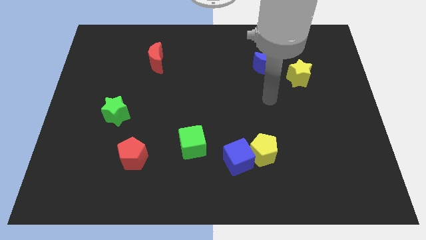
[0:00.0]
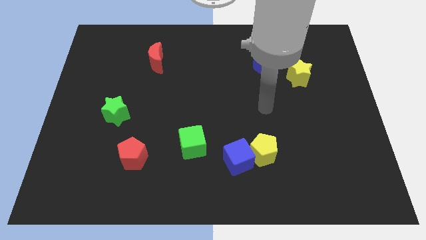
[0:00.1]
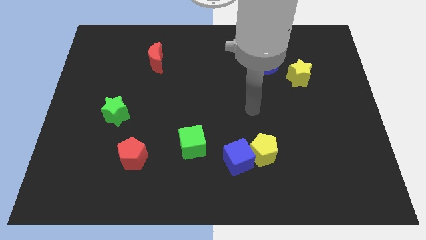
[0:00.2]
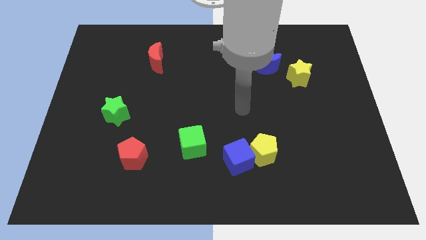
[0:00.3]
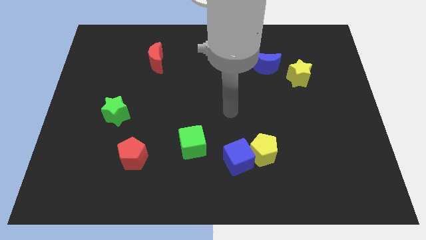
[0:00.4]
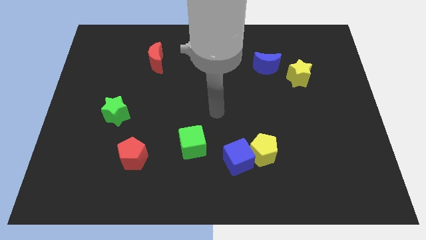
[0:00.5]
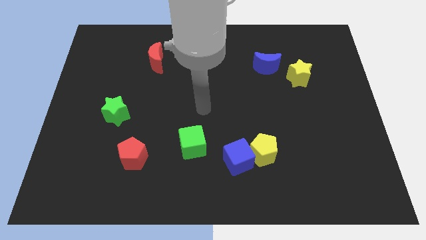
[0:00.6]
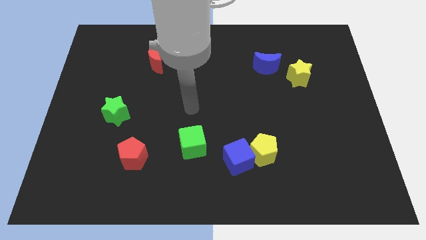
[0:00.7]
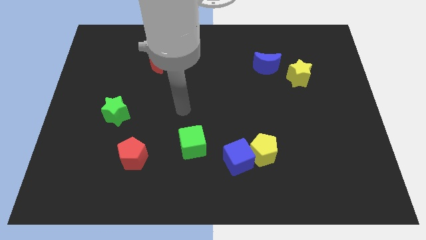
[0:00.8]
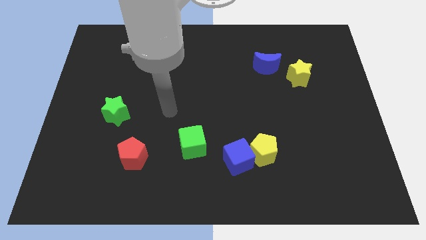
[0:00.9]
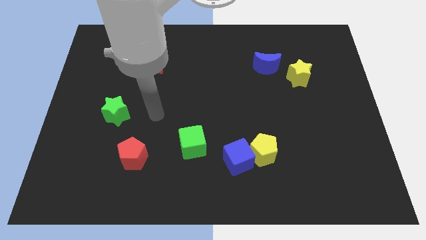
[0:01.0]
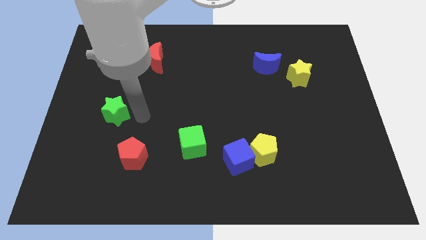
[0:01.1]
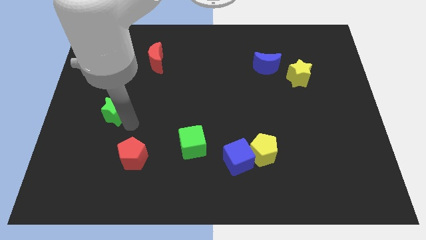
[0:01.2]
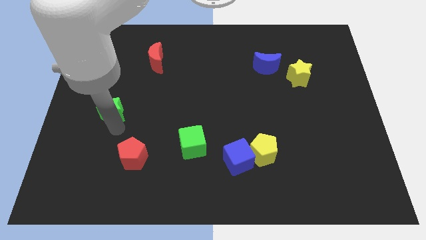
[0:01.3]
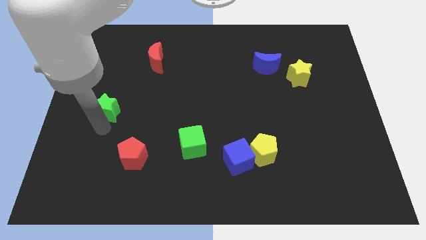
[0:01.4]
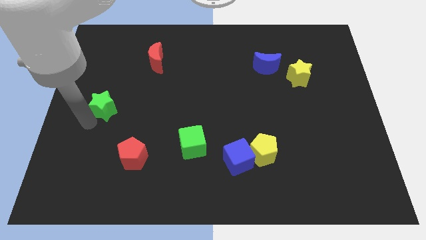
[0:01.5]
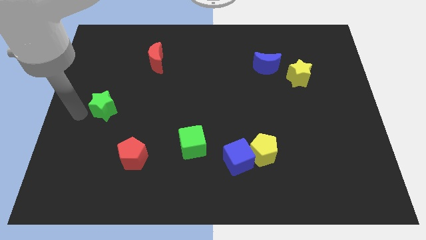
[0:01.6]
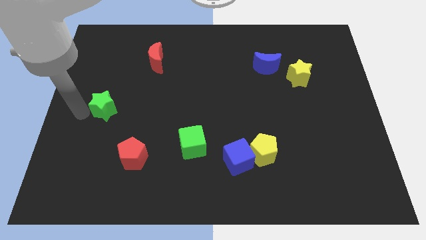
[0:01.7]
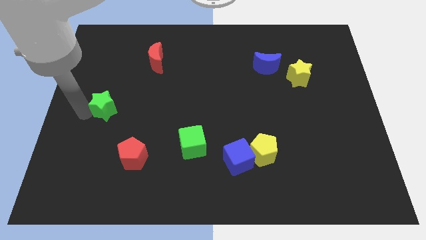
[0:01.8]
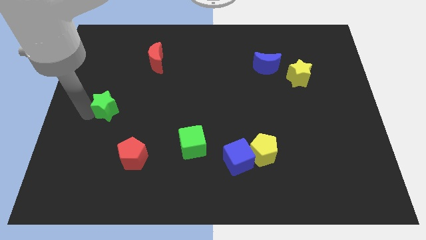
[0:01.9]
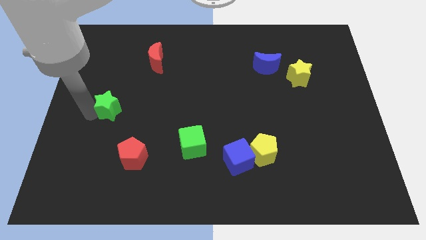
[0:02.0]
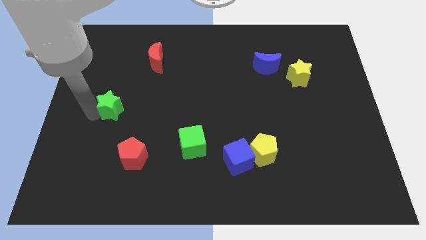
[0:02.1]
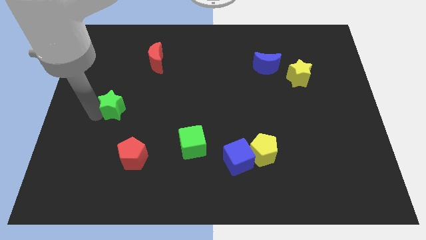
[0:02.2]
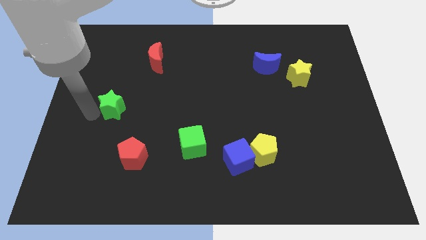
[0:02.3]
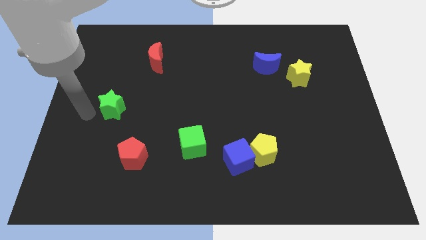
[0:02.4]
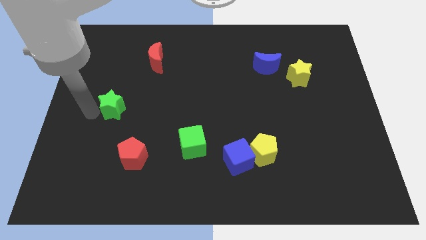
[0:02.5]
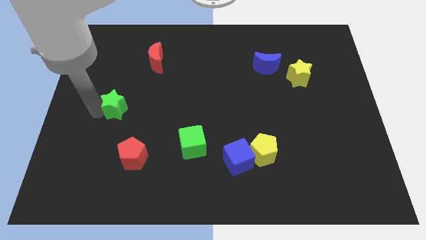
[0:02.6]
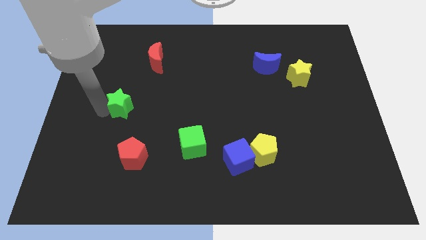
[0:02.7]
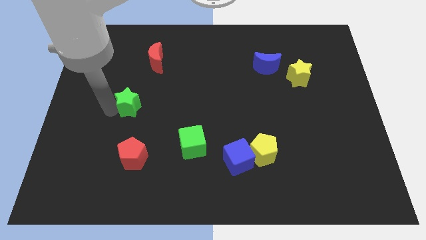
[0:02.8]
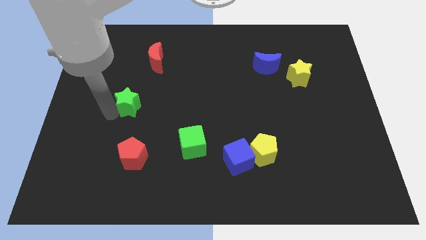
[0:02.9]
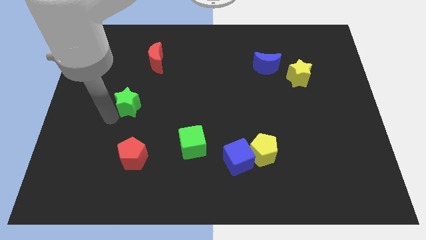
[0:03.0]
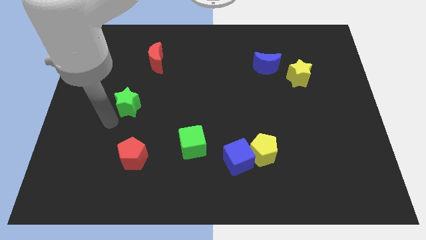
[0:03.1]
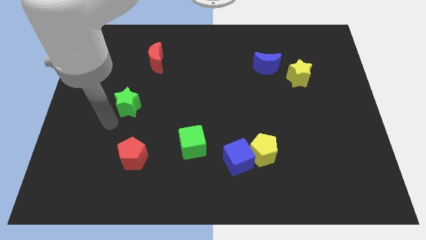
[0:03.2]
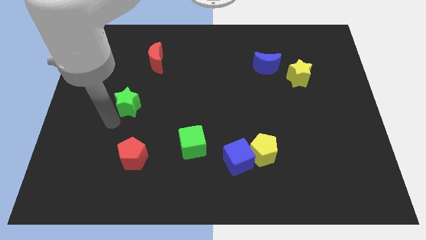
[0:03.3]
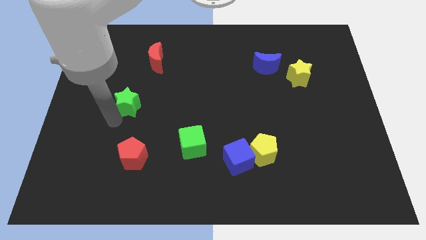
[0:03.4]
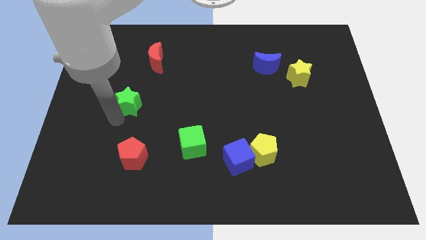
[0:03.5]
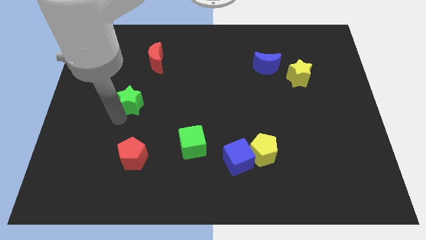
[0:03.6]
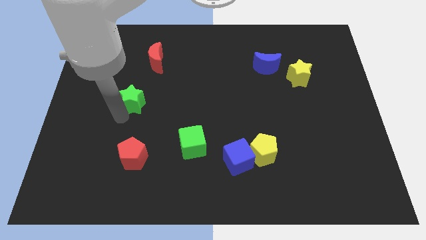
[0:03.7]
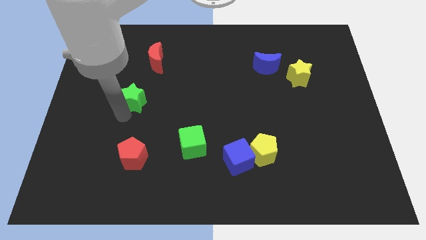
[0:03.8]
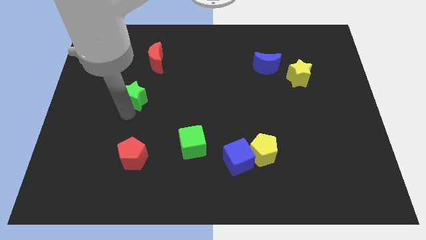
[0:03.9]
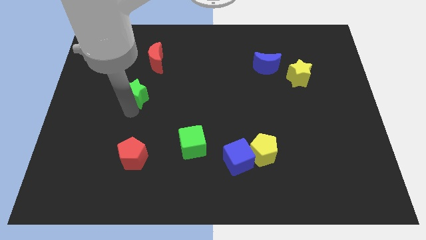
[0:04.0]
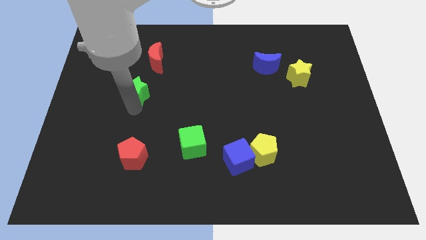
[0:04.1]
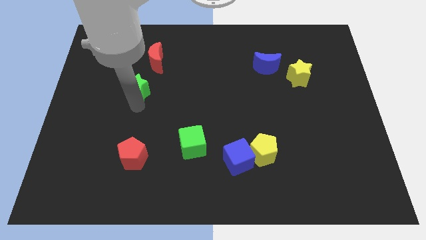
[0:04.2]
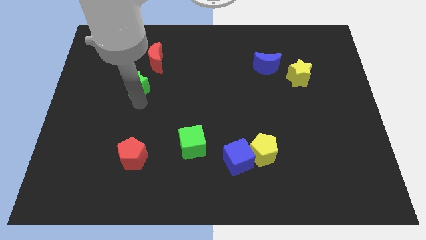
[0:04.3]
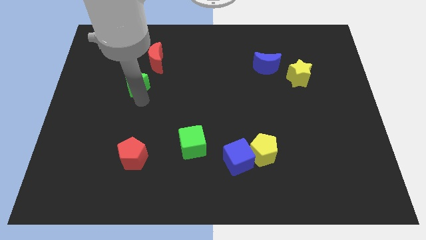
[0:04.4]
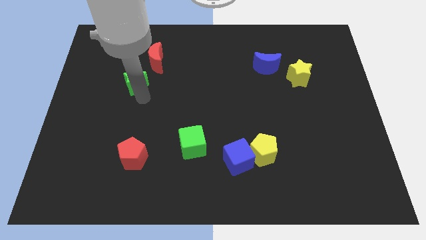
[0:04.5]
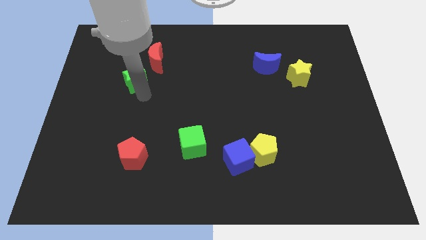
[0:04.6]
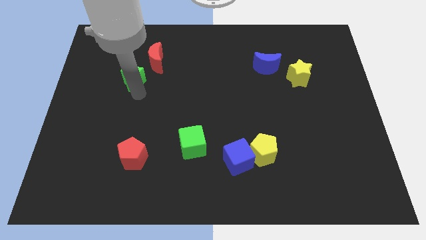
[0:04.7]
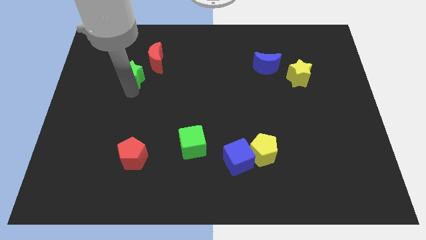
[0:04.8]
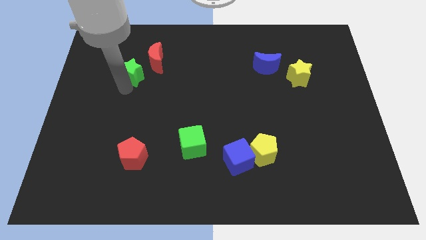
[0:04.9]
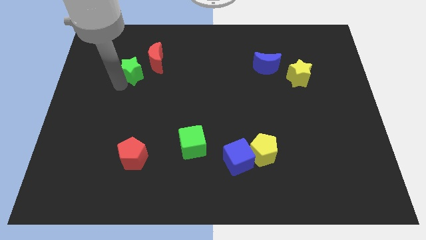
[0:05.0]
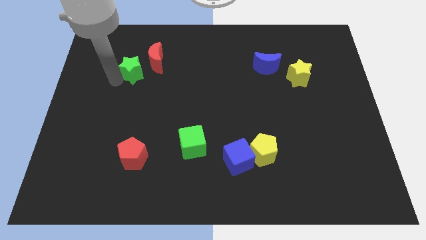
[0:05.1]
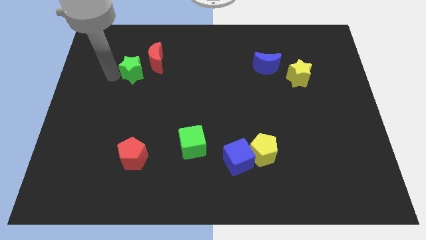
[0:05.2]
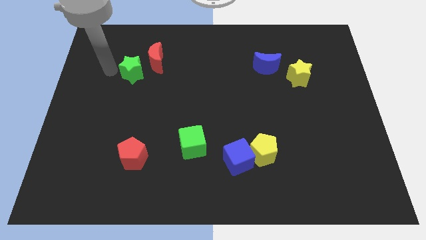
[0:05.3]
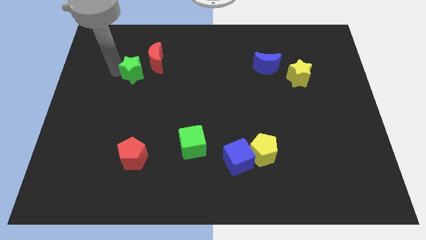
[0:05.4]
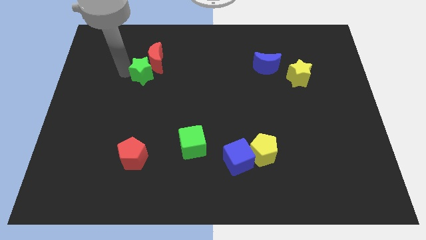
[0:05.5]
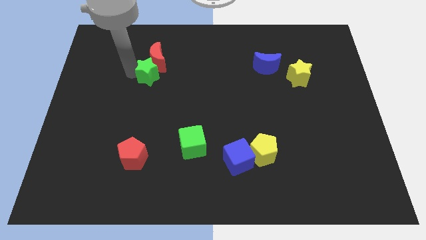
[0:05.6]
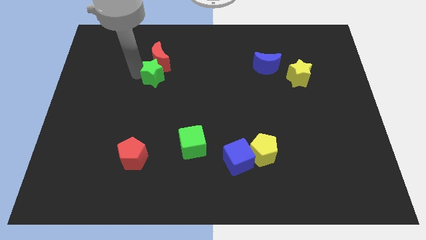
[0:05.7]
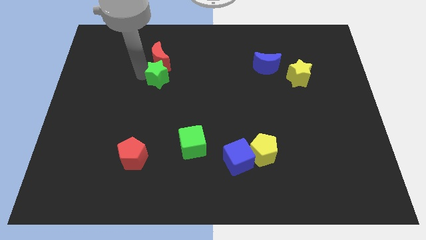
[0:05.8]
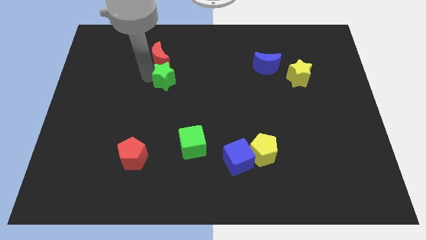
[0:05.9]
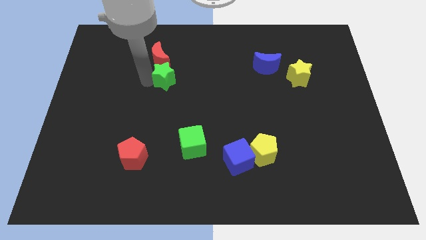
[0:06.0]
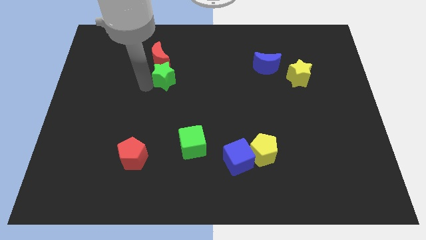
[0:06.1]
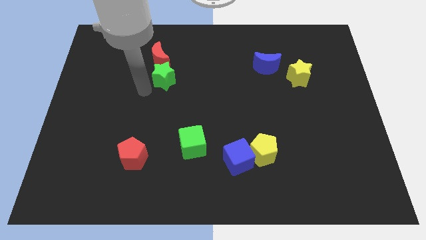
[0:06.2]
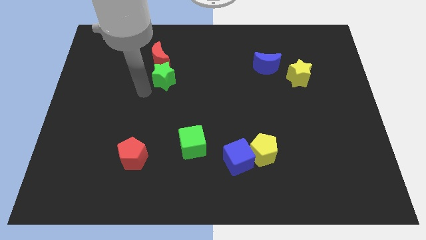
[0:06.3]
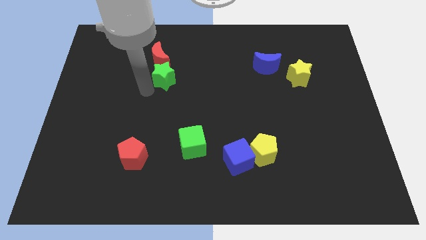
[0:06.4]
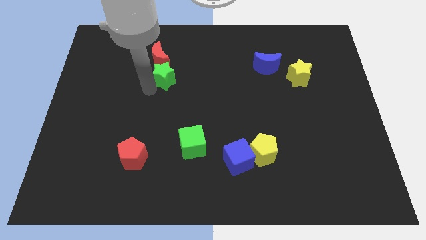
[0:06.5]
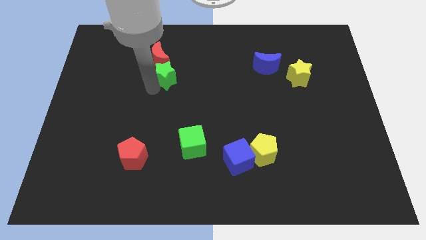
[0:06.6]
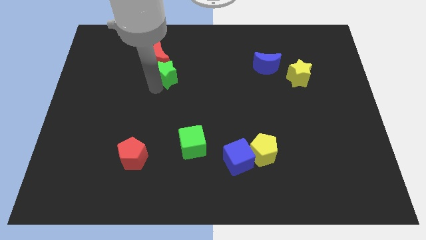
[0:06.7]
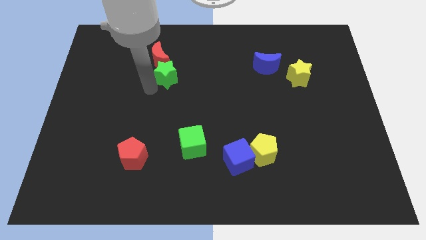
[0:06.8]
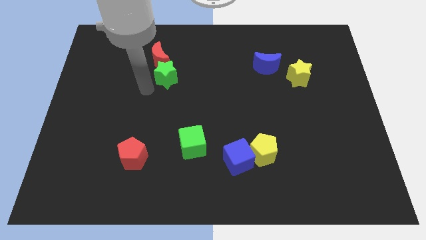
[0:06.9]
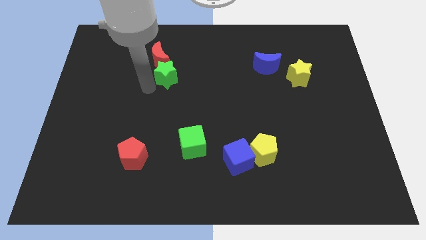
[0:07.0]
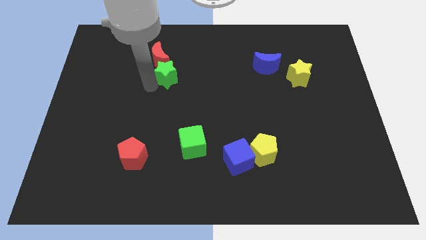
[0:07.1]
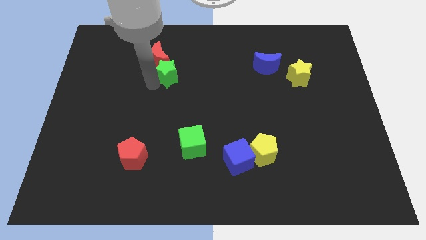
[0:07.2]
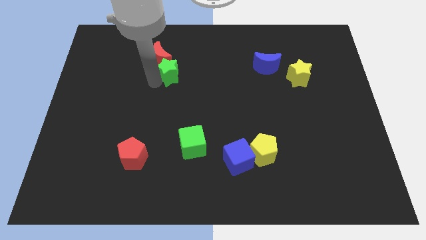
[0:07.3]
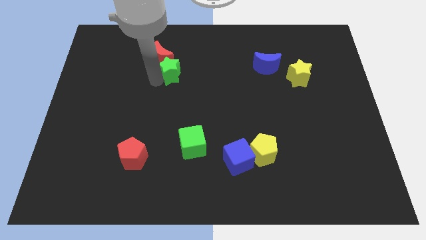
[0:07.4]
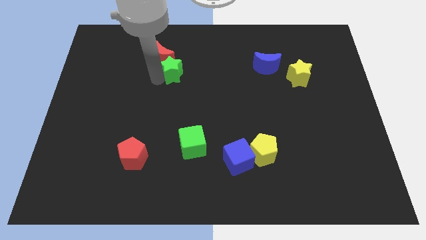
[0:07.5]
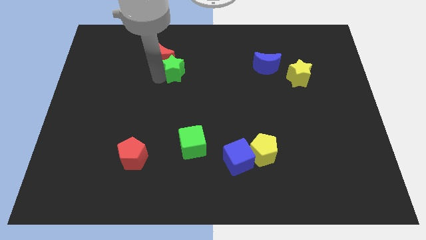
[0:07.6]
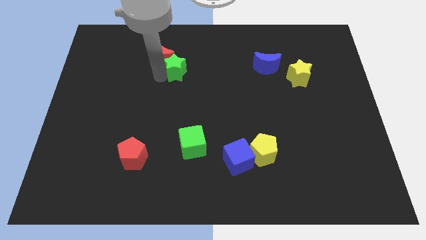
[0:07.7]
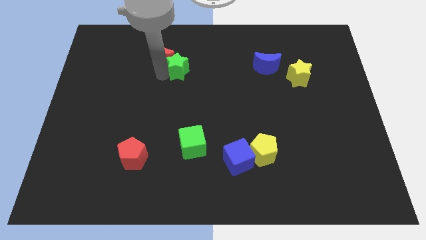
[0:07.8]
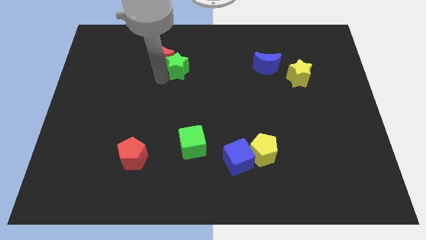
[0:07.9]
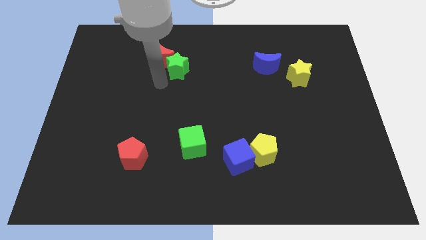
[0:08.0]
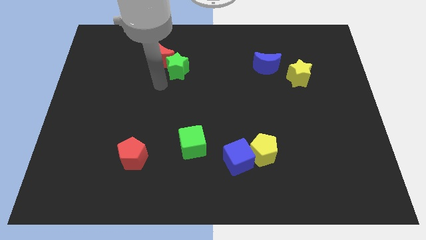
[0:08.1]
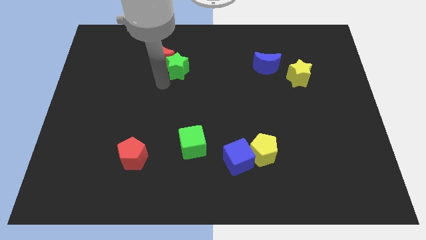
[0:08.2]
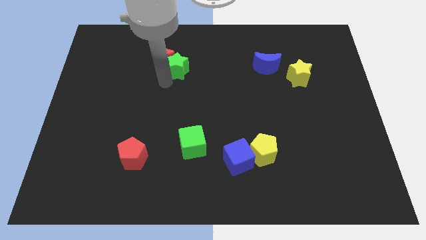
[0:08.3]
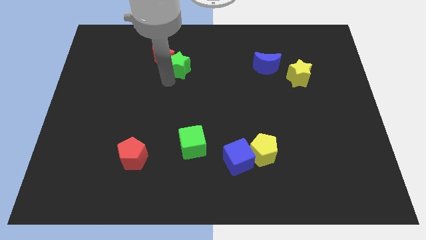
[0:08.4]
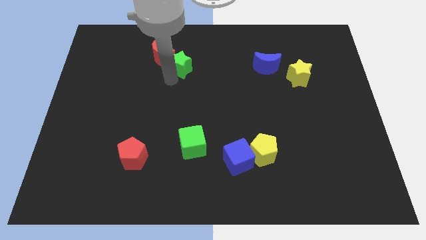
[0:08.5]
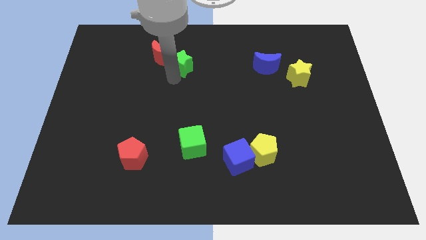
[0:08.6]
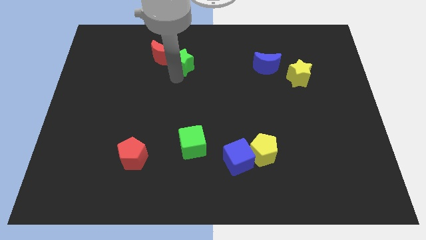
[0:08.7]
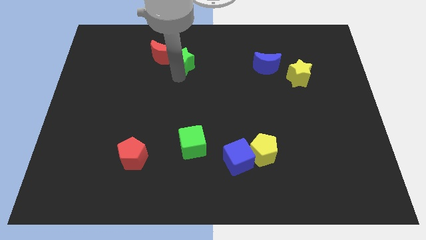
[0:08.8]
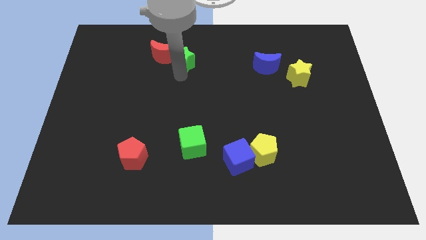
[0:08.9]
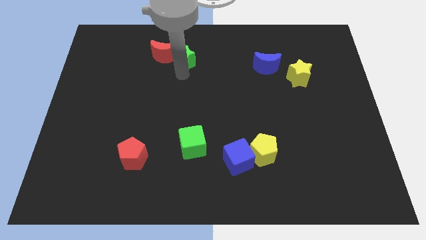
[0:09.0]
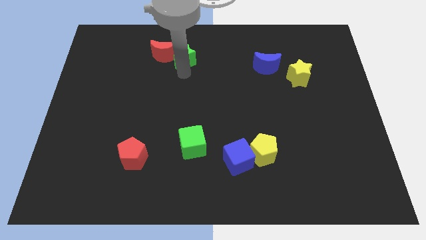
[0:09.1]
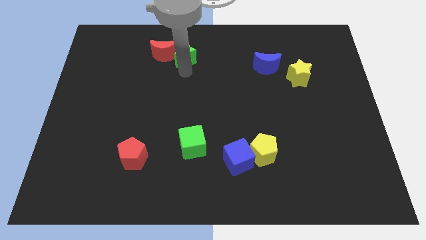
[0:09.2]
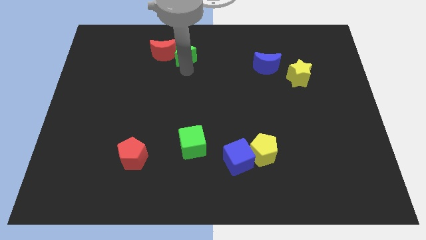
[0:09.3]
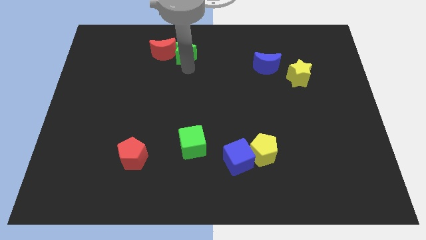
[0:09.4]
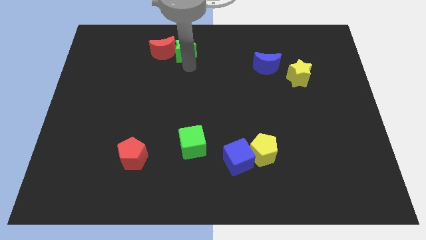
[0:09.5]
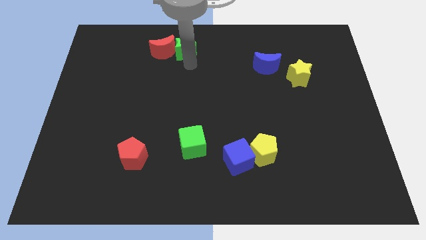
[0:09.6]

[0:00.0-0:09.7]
move the green star to the towards your base
